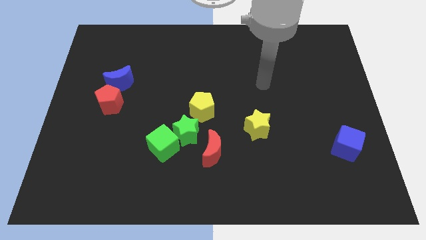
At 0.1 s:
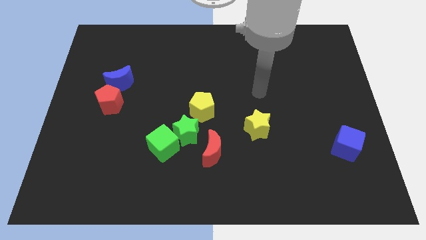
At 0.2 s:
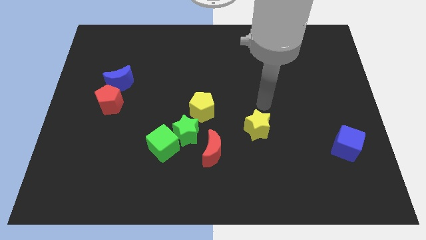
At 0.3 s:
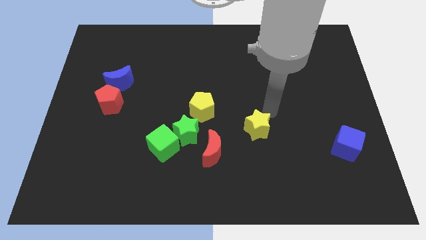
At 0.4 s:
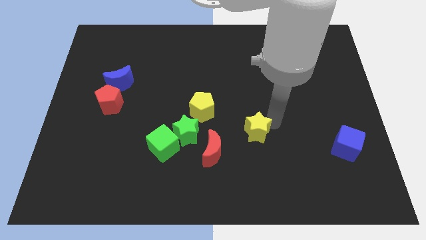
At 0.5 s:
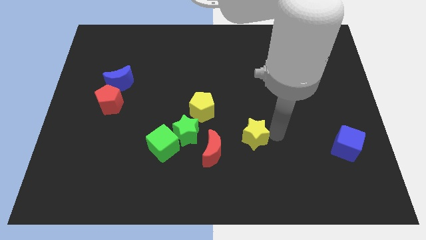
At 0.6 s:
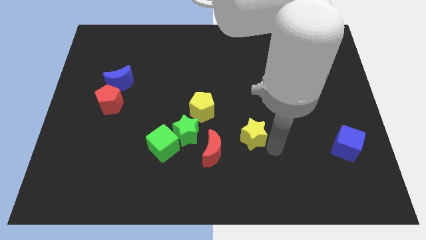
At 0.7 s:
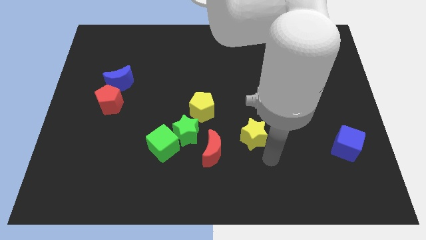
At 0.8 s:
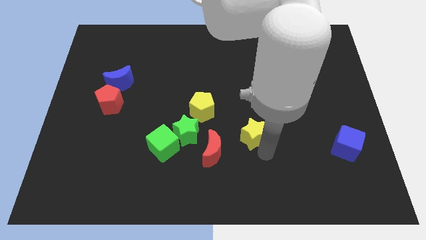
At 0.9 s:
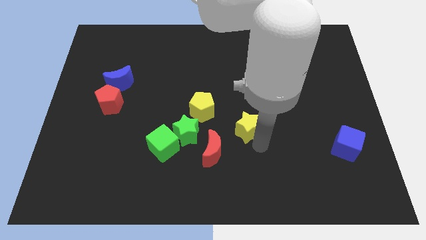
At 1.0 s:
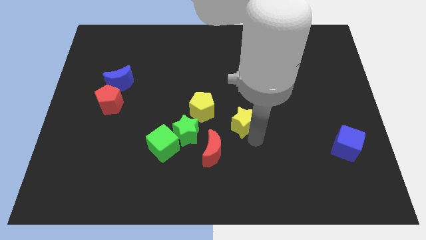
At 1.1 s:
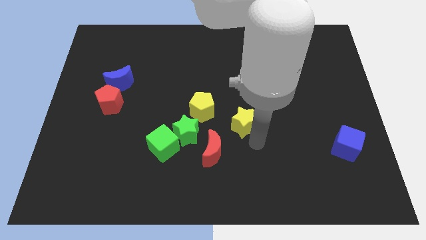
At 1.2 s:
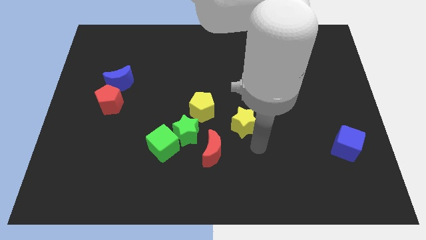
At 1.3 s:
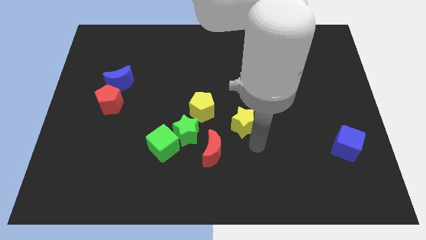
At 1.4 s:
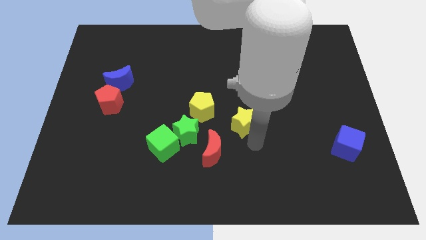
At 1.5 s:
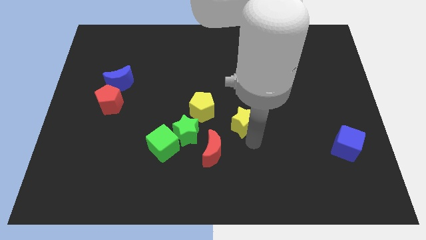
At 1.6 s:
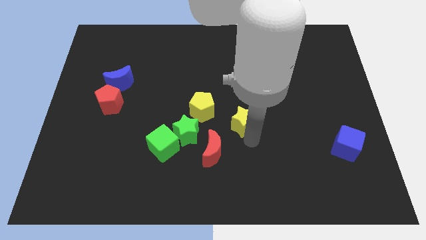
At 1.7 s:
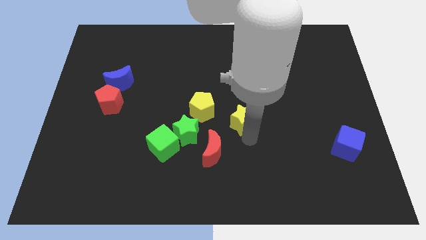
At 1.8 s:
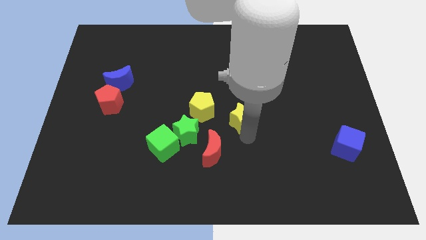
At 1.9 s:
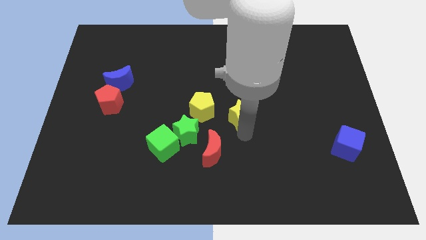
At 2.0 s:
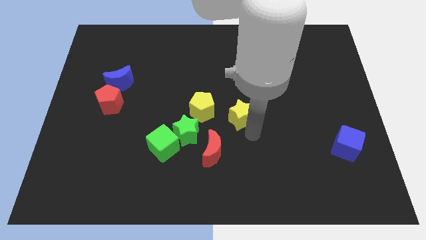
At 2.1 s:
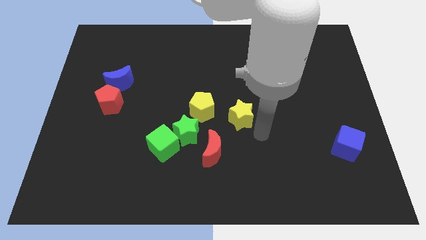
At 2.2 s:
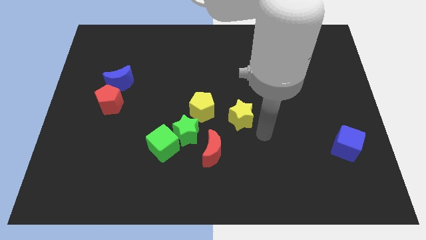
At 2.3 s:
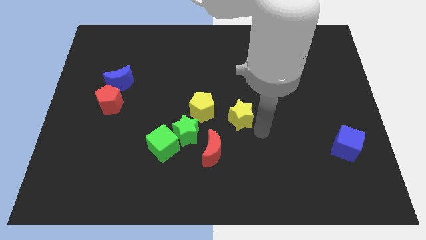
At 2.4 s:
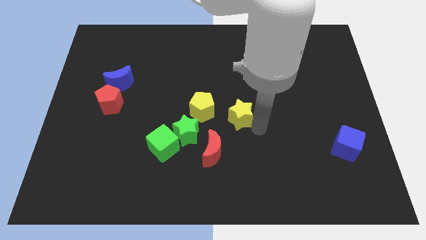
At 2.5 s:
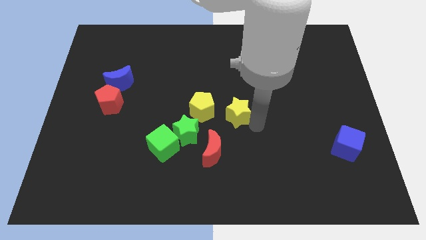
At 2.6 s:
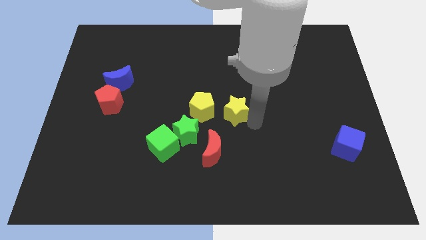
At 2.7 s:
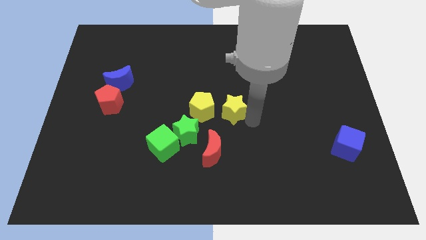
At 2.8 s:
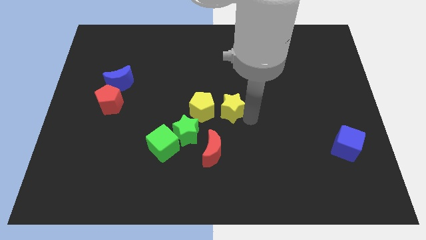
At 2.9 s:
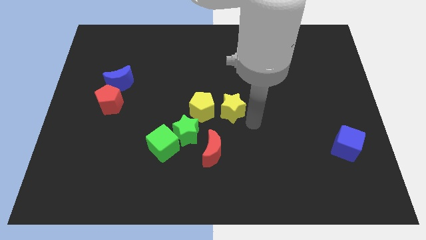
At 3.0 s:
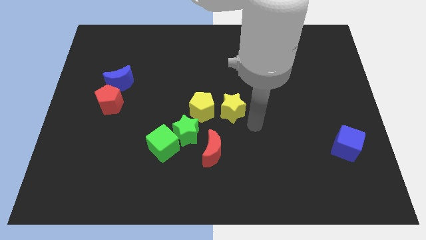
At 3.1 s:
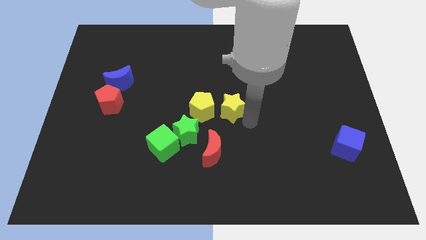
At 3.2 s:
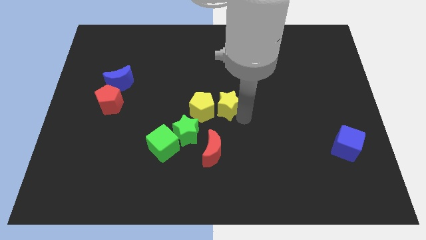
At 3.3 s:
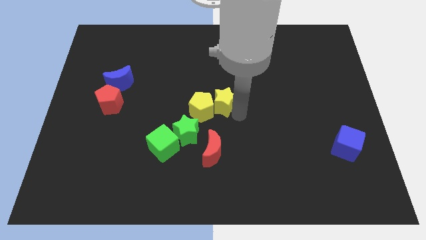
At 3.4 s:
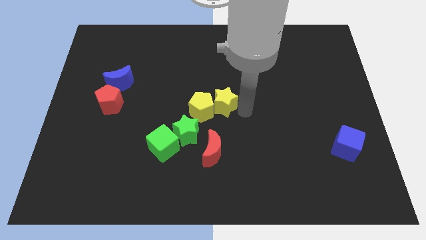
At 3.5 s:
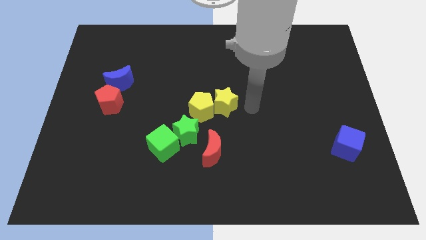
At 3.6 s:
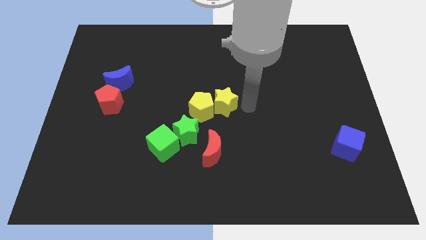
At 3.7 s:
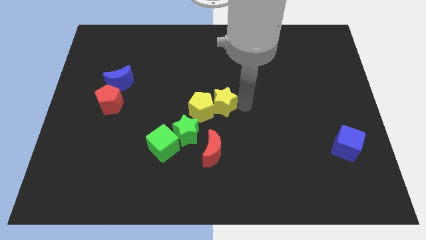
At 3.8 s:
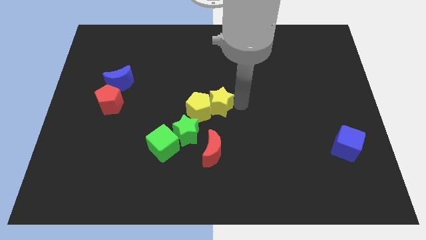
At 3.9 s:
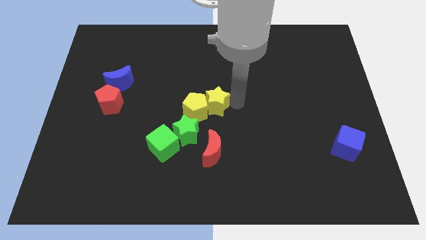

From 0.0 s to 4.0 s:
push the yellow star left somewhat

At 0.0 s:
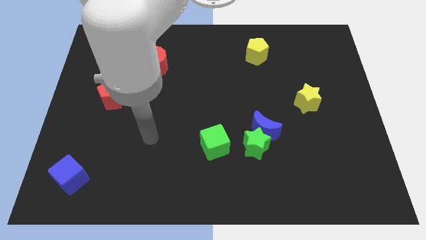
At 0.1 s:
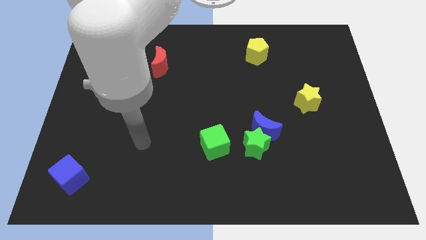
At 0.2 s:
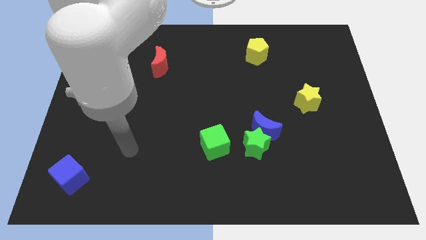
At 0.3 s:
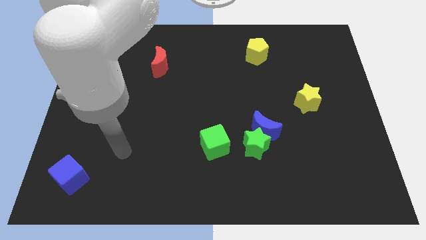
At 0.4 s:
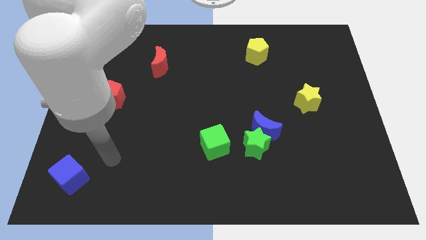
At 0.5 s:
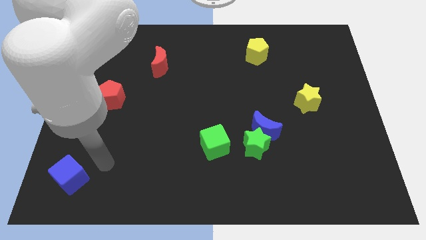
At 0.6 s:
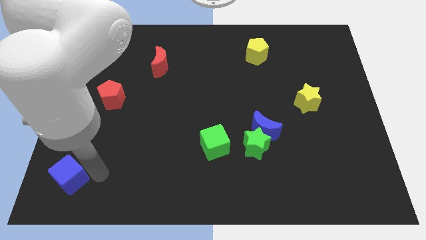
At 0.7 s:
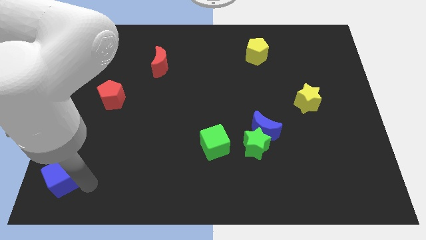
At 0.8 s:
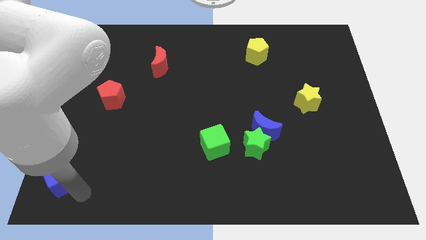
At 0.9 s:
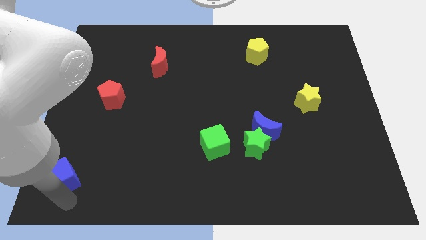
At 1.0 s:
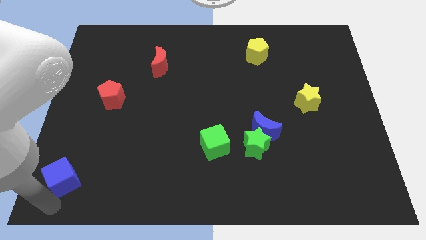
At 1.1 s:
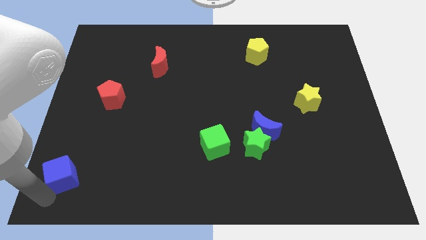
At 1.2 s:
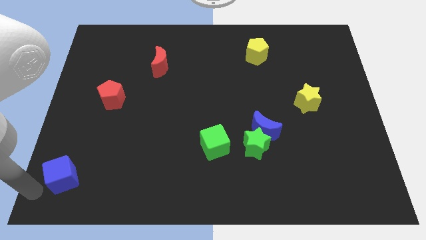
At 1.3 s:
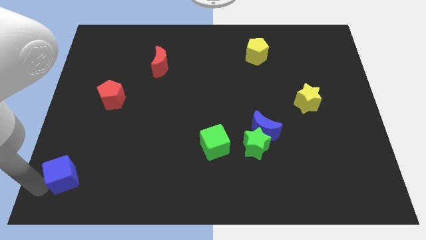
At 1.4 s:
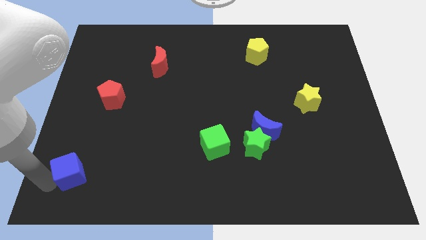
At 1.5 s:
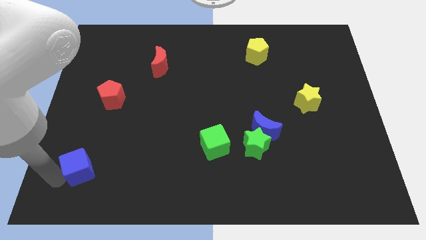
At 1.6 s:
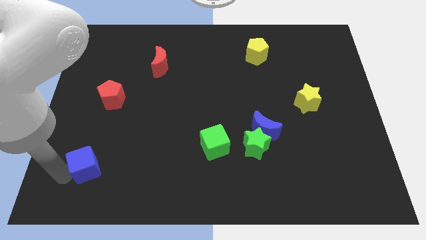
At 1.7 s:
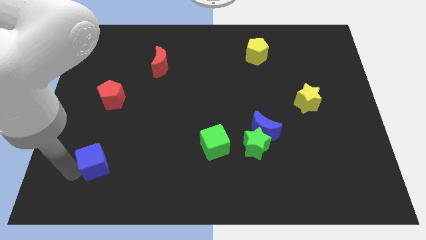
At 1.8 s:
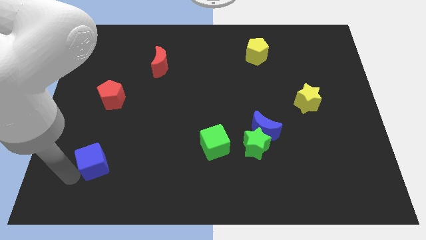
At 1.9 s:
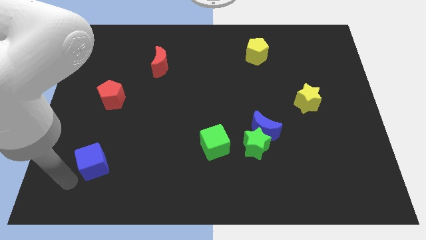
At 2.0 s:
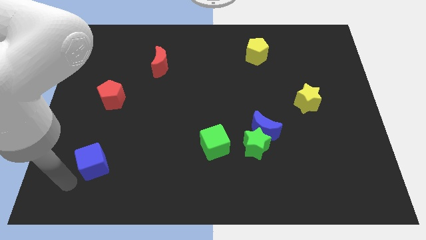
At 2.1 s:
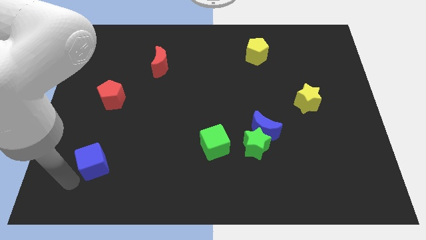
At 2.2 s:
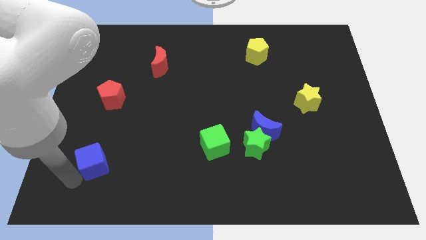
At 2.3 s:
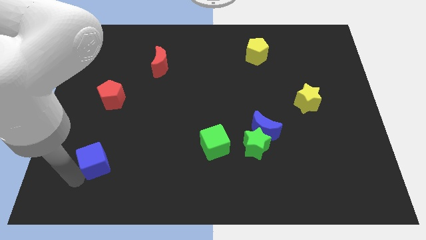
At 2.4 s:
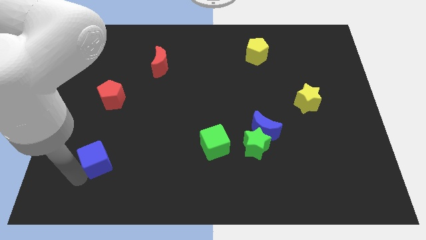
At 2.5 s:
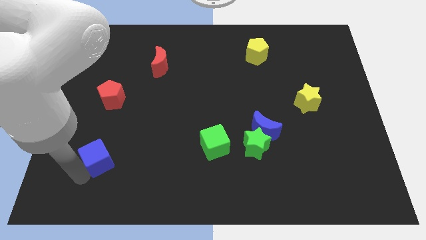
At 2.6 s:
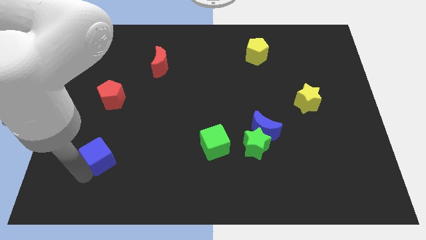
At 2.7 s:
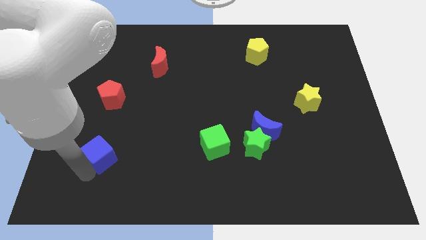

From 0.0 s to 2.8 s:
slightly slide the blue cube up and to the right diagonally

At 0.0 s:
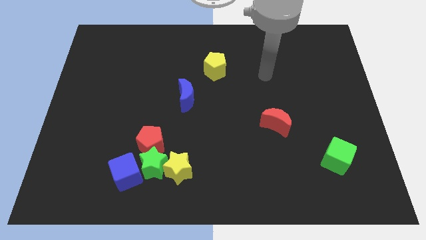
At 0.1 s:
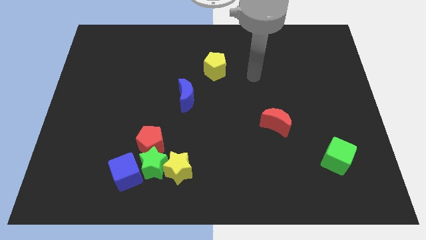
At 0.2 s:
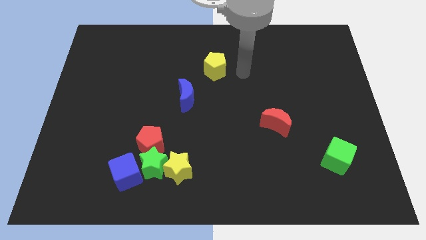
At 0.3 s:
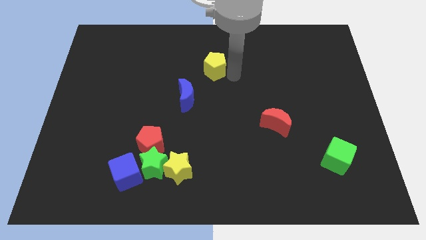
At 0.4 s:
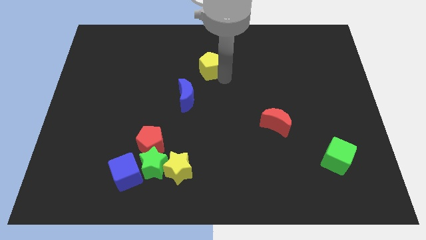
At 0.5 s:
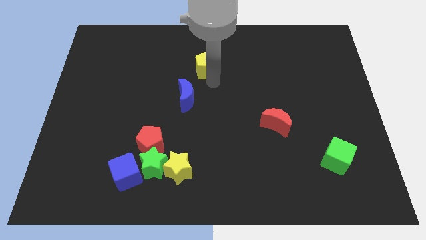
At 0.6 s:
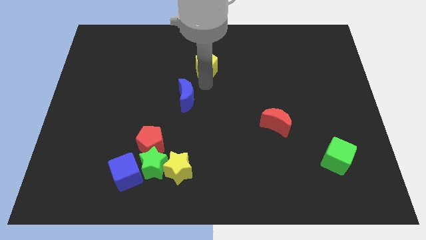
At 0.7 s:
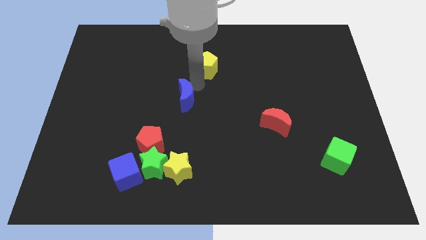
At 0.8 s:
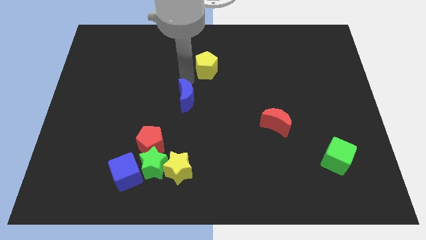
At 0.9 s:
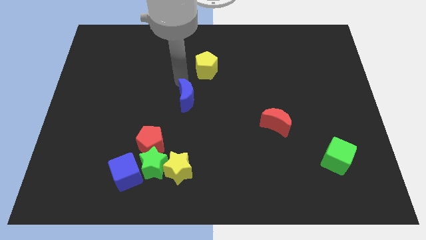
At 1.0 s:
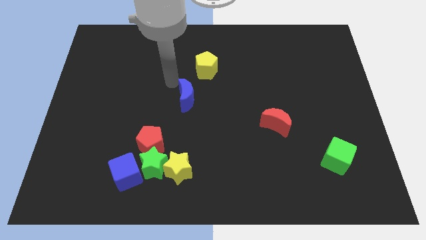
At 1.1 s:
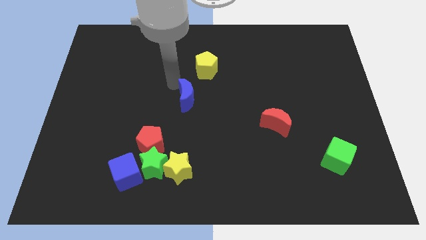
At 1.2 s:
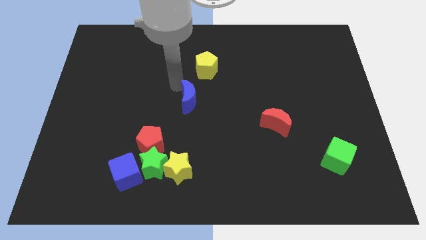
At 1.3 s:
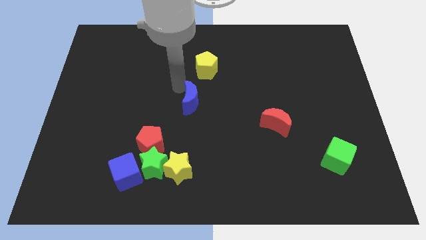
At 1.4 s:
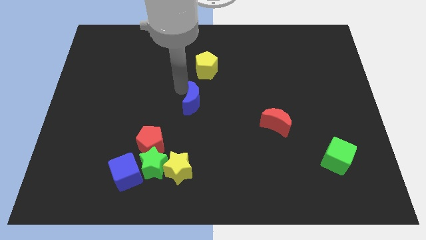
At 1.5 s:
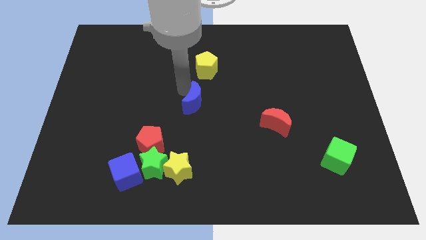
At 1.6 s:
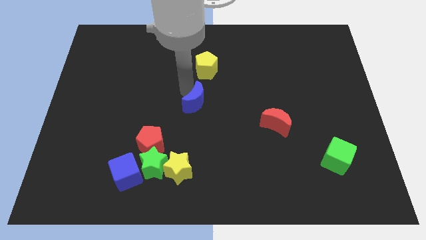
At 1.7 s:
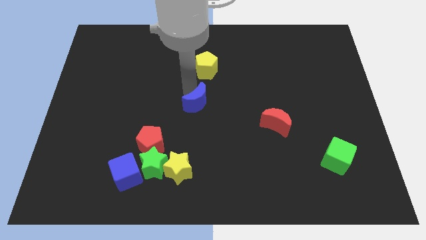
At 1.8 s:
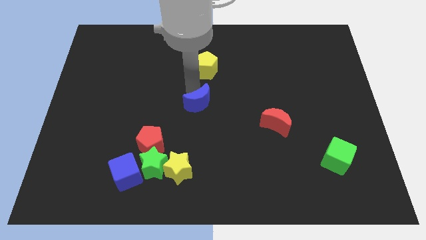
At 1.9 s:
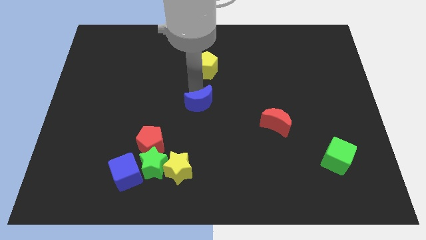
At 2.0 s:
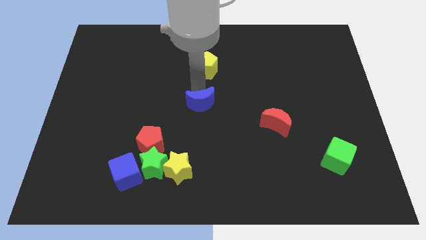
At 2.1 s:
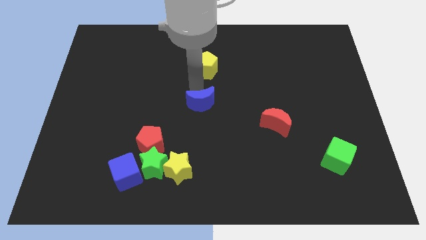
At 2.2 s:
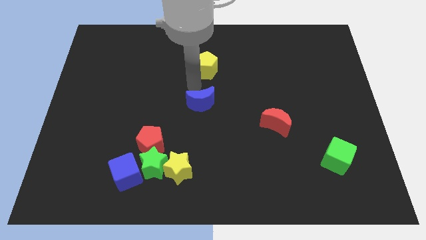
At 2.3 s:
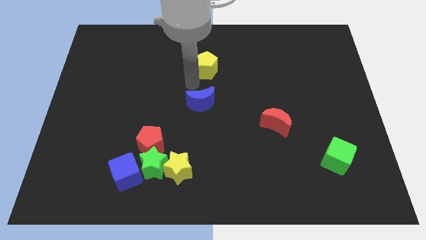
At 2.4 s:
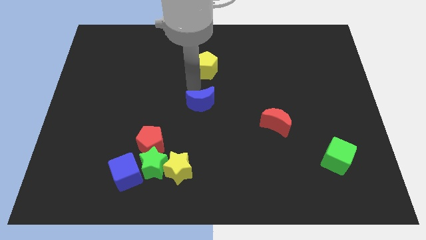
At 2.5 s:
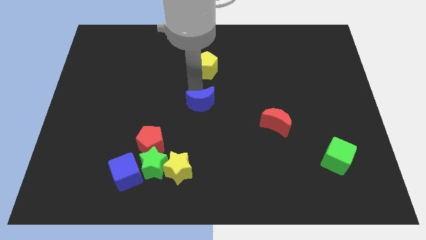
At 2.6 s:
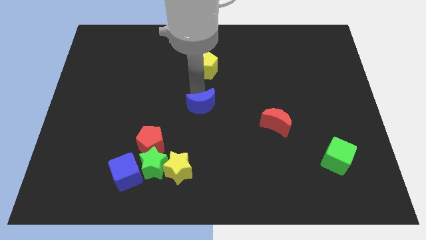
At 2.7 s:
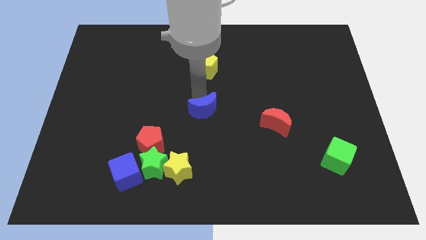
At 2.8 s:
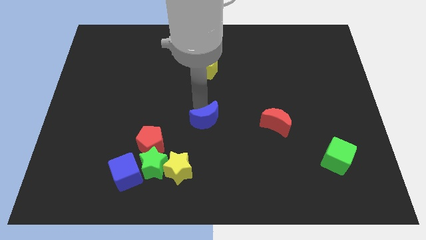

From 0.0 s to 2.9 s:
slide the blue moon a little bit downwards and to the right
